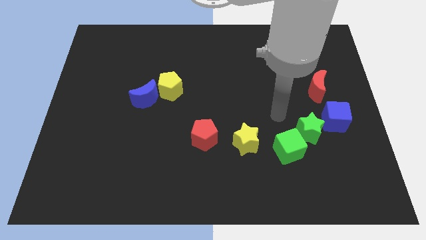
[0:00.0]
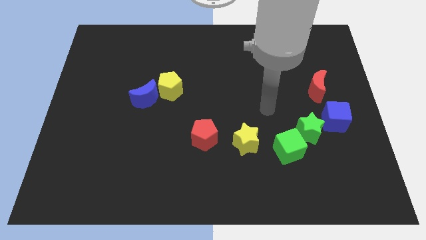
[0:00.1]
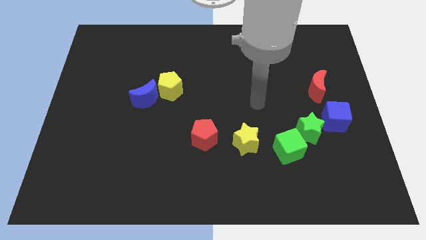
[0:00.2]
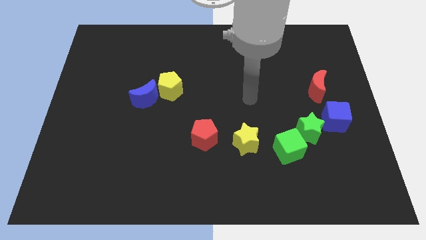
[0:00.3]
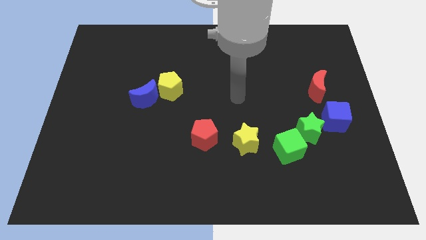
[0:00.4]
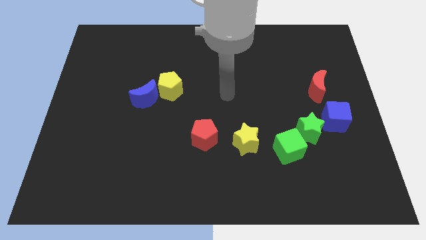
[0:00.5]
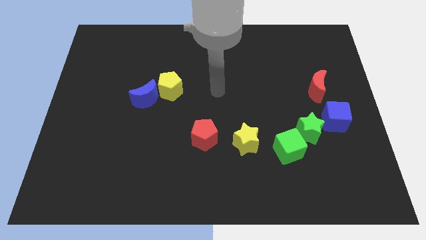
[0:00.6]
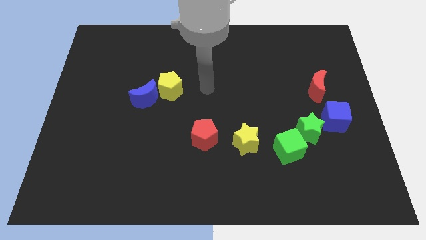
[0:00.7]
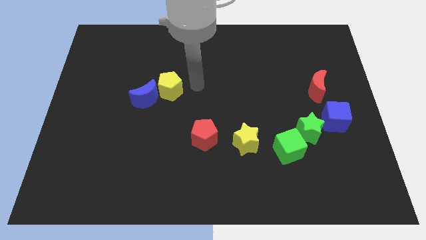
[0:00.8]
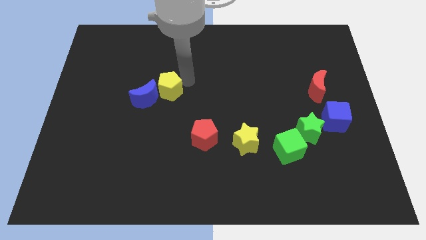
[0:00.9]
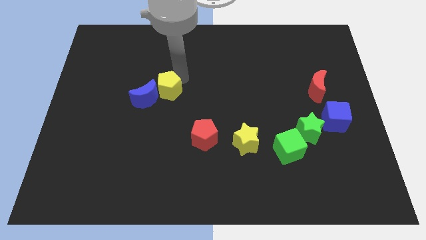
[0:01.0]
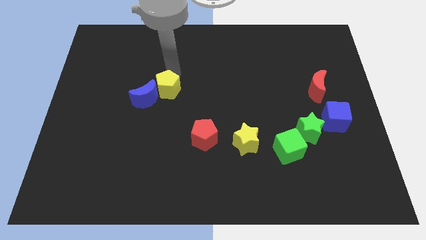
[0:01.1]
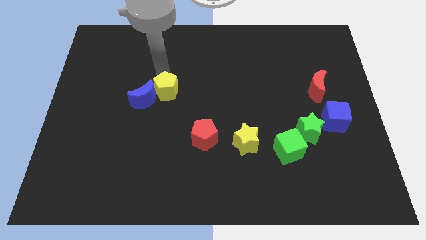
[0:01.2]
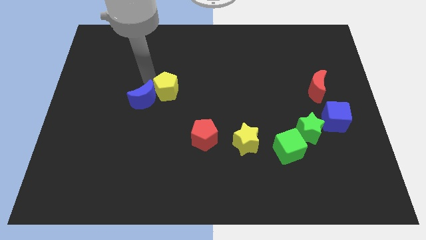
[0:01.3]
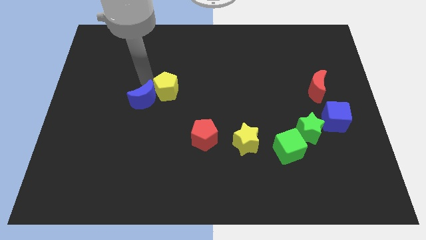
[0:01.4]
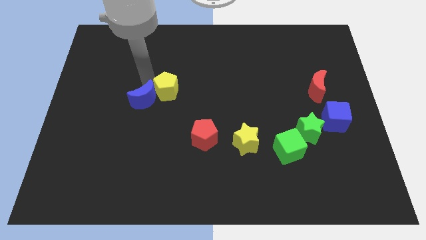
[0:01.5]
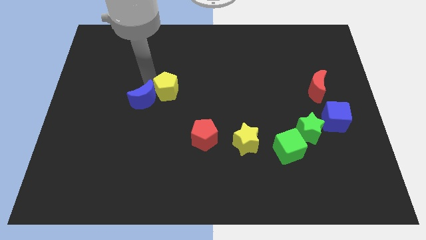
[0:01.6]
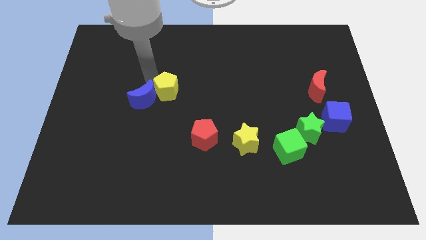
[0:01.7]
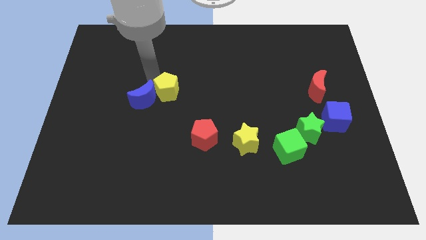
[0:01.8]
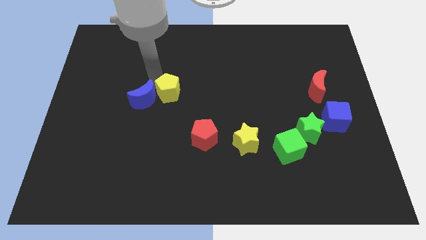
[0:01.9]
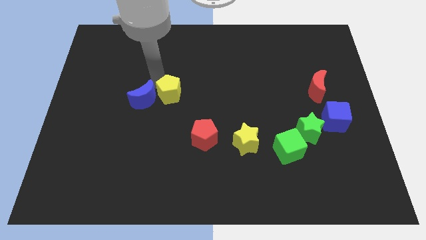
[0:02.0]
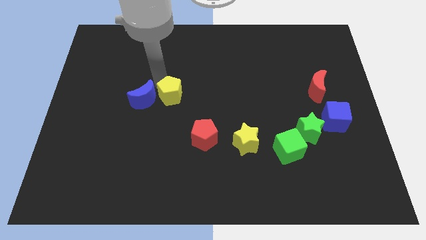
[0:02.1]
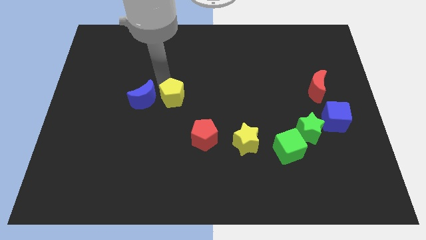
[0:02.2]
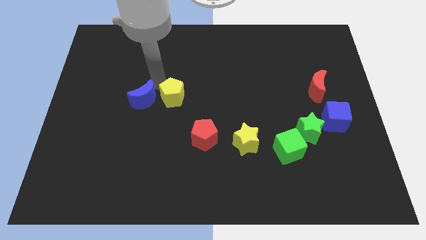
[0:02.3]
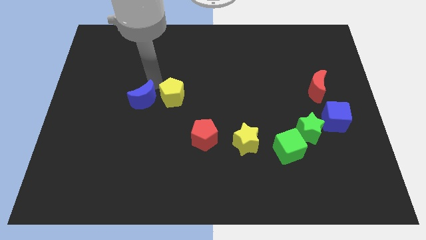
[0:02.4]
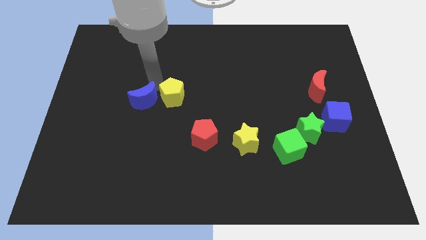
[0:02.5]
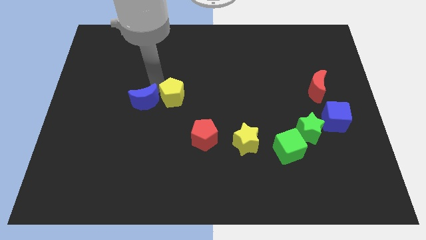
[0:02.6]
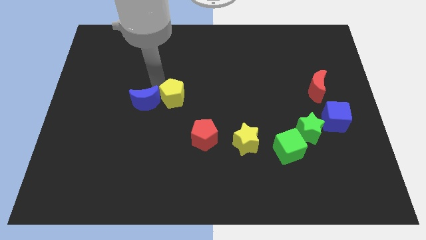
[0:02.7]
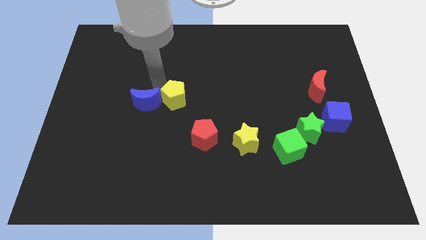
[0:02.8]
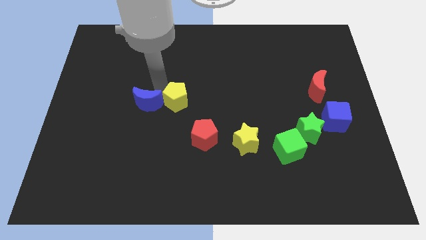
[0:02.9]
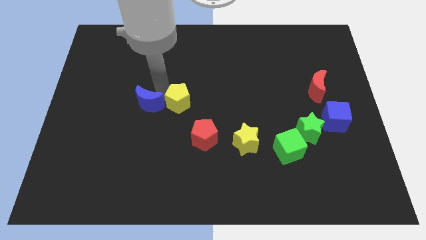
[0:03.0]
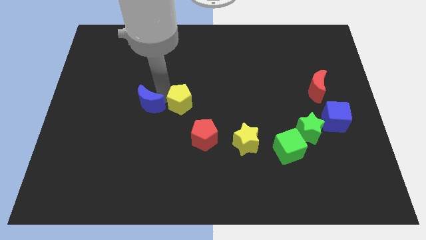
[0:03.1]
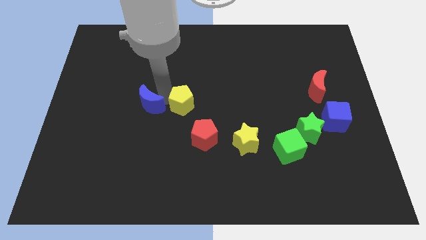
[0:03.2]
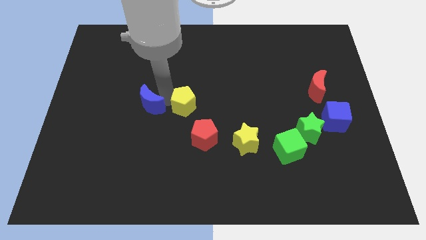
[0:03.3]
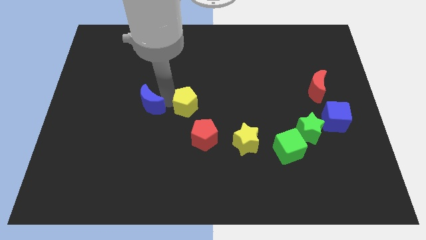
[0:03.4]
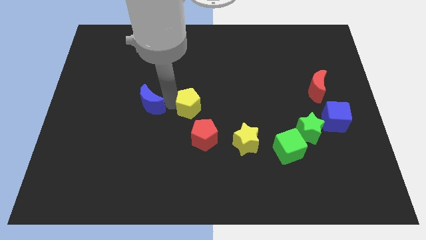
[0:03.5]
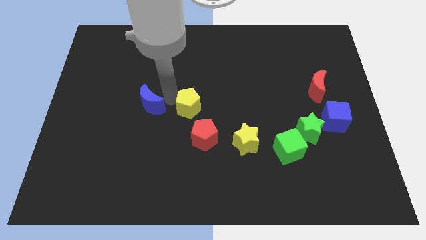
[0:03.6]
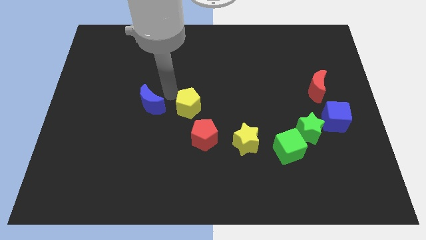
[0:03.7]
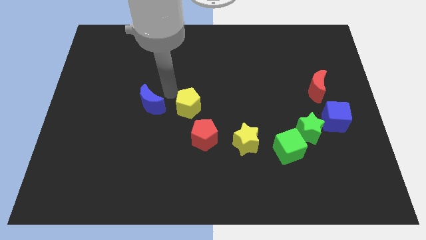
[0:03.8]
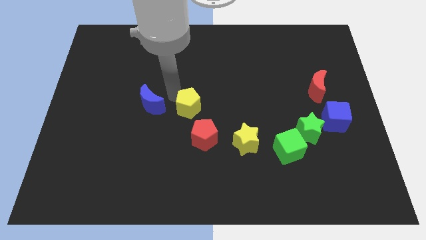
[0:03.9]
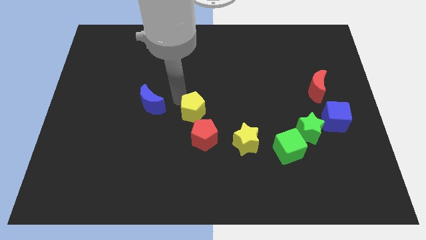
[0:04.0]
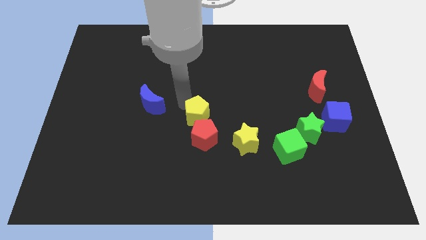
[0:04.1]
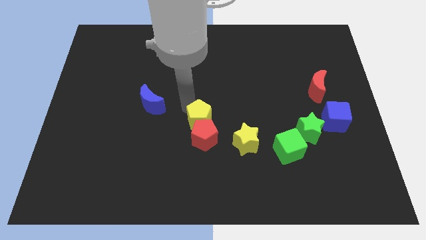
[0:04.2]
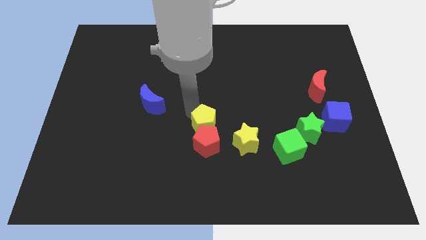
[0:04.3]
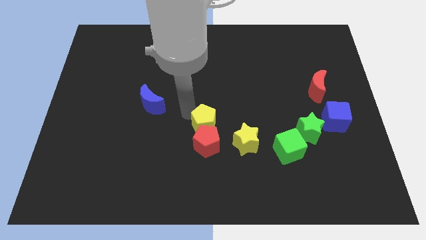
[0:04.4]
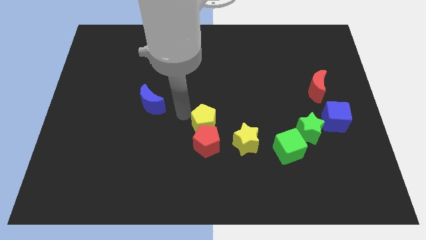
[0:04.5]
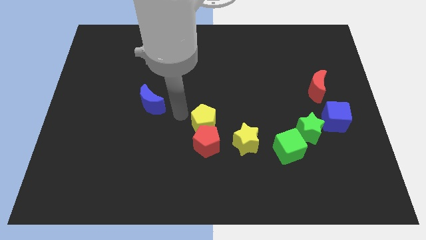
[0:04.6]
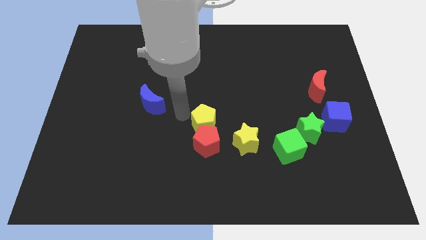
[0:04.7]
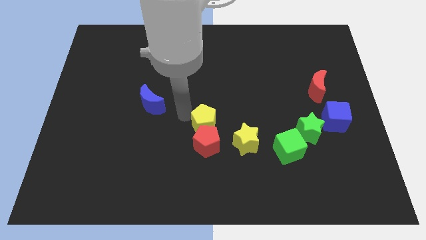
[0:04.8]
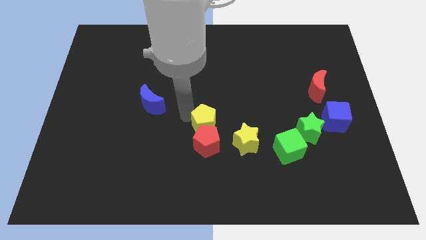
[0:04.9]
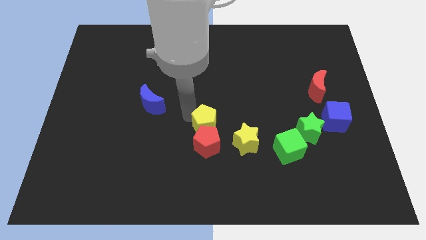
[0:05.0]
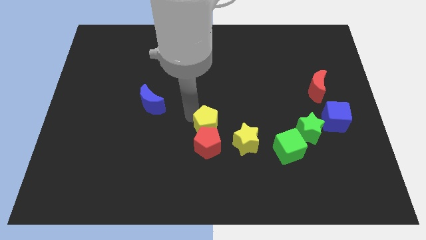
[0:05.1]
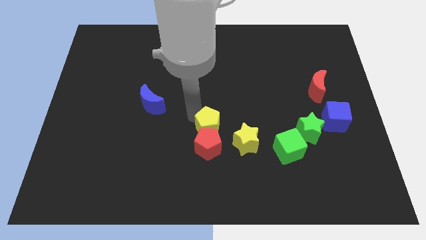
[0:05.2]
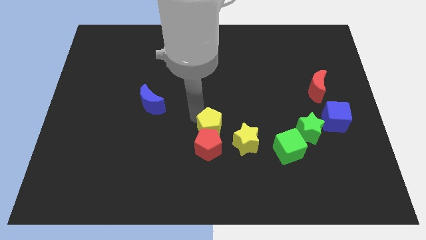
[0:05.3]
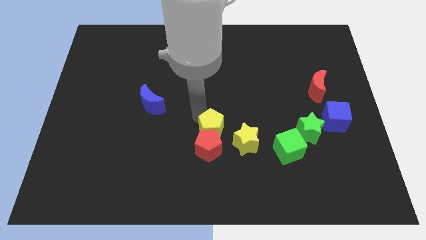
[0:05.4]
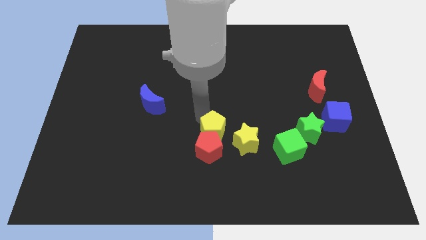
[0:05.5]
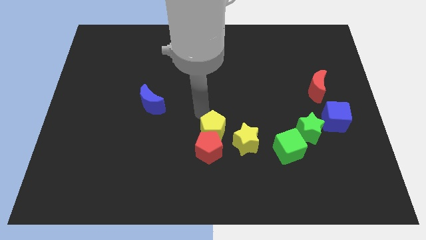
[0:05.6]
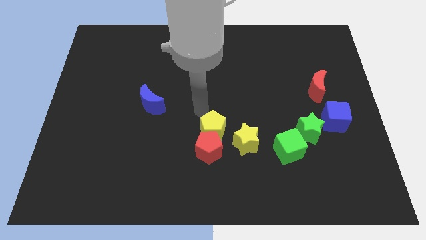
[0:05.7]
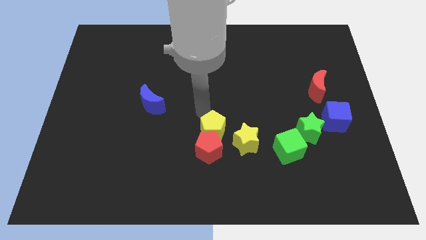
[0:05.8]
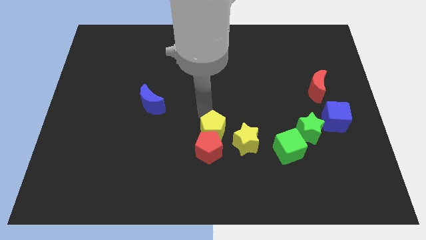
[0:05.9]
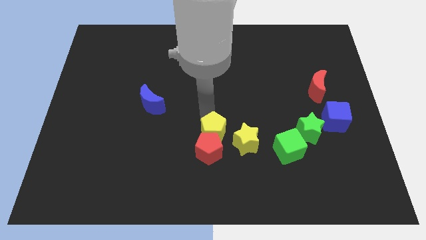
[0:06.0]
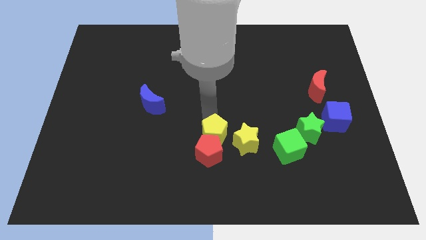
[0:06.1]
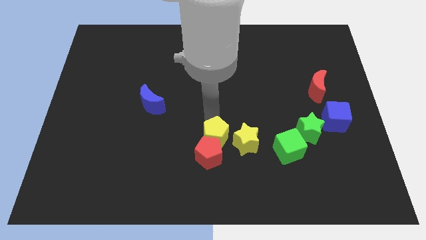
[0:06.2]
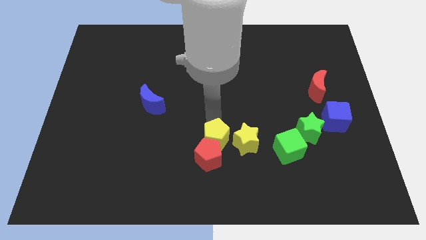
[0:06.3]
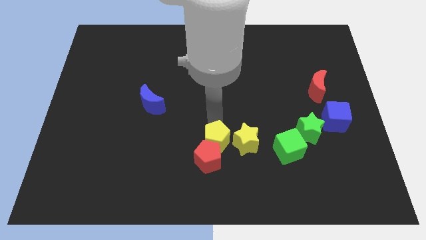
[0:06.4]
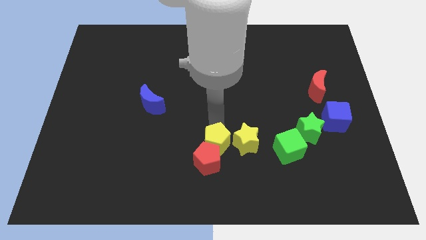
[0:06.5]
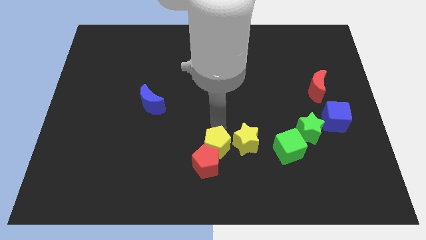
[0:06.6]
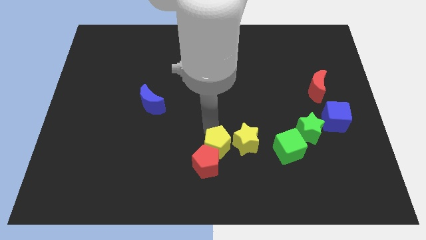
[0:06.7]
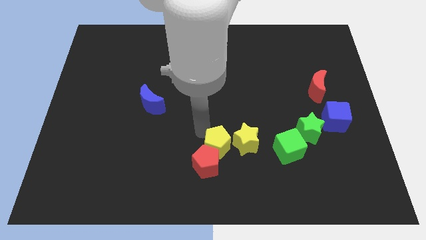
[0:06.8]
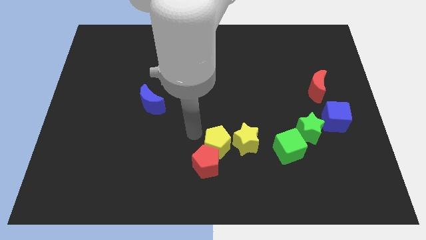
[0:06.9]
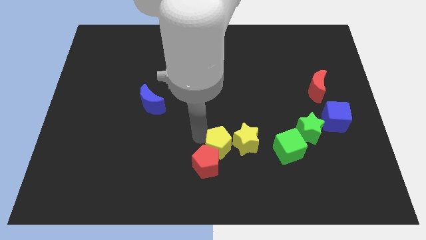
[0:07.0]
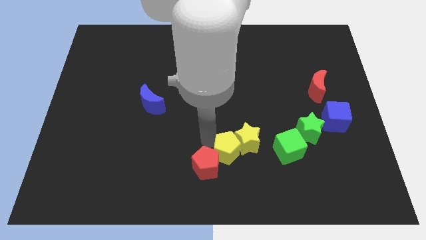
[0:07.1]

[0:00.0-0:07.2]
slide the yellow pentagon diagonally downwards and right

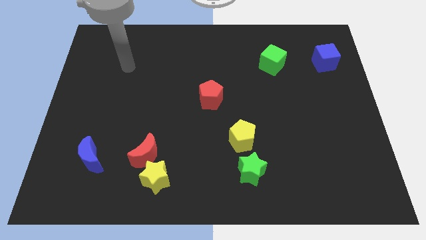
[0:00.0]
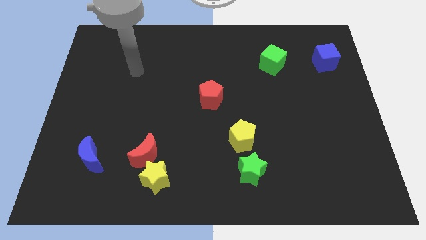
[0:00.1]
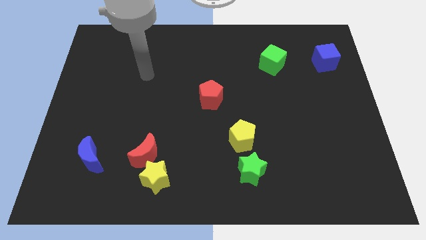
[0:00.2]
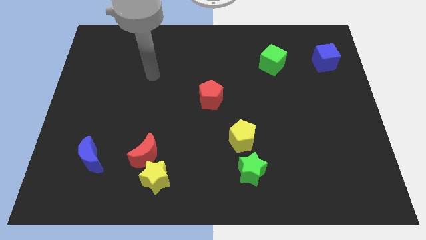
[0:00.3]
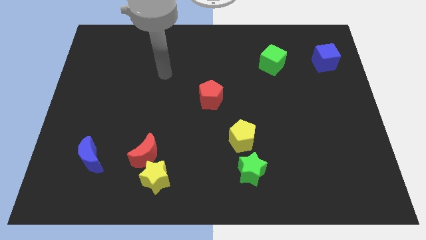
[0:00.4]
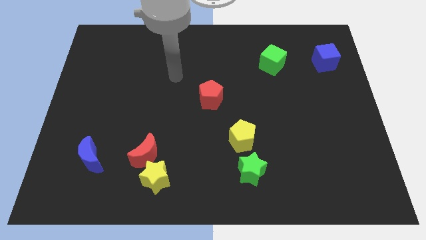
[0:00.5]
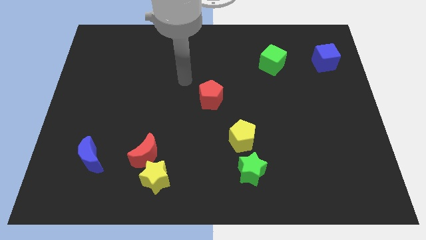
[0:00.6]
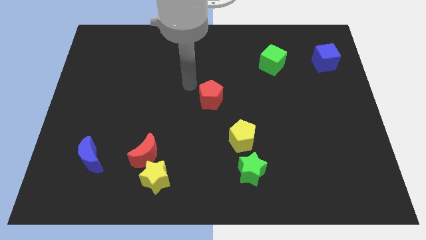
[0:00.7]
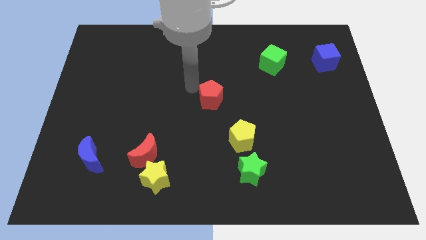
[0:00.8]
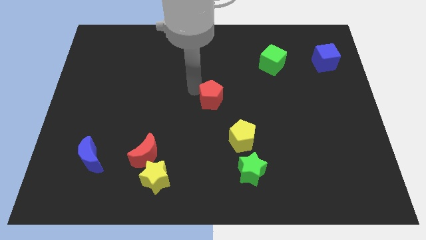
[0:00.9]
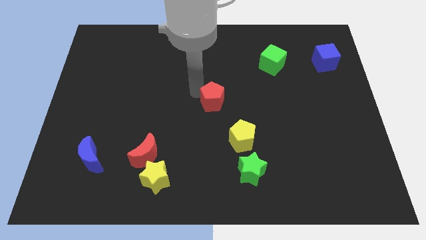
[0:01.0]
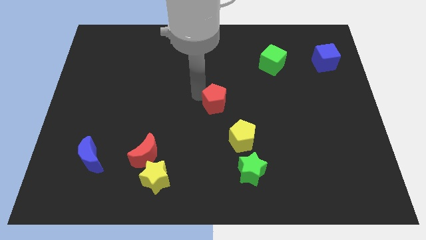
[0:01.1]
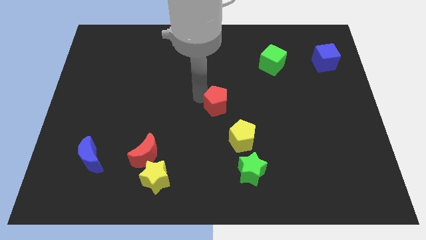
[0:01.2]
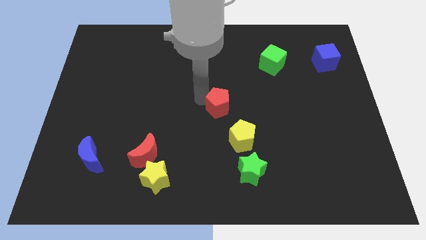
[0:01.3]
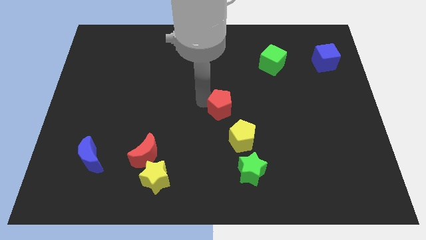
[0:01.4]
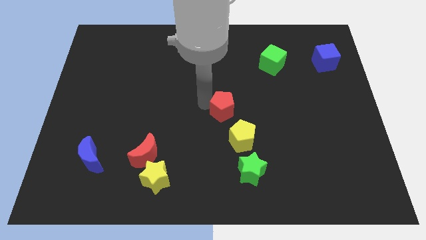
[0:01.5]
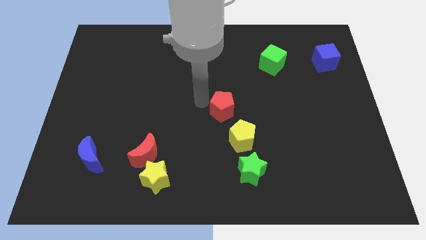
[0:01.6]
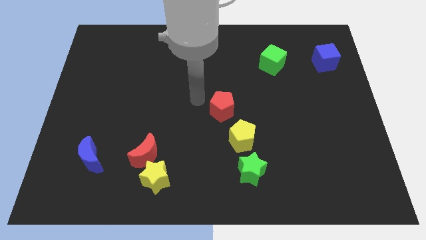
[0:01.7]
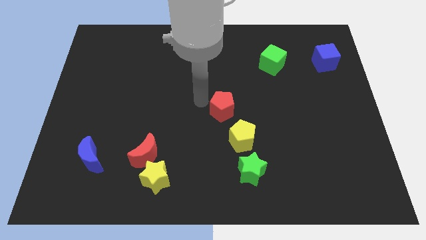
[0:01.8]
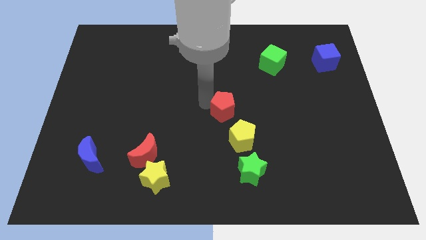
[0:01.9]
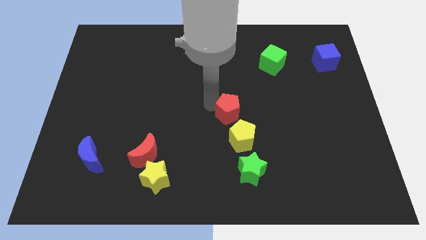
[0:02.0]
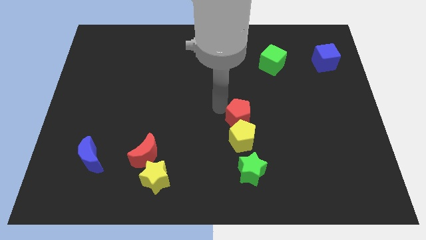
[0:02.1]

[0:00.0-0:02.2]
slightly move the red pentagon downwards and right
